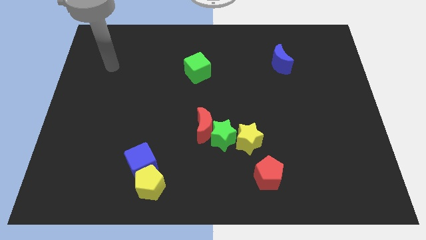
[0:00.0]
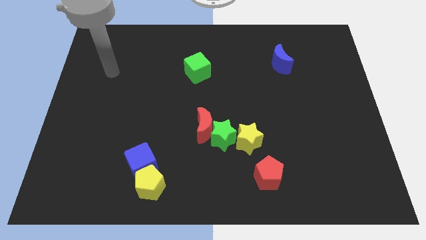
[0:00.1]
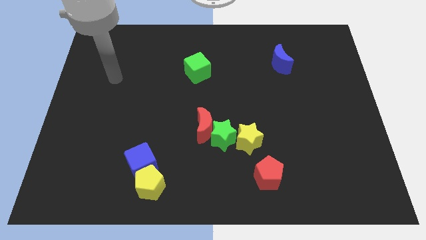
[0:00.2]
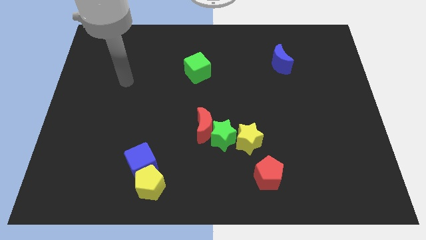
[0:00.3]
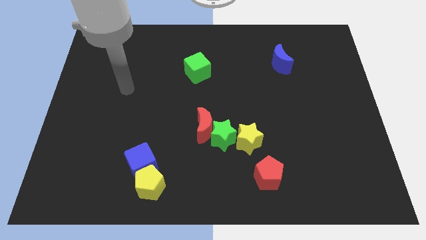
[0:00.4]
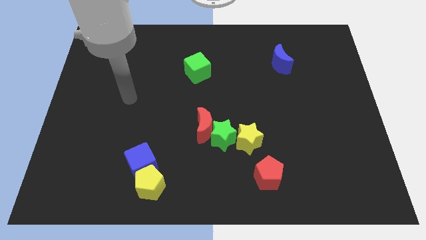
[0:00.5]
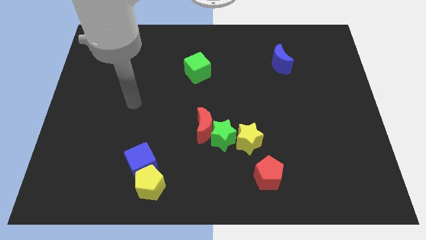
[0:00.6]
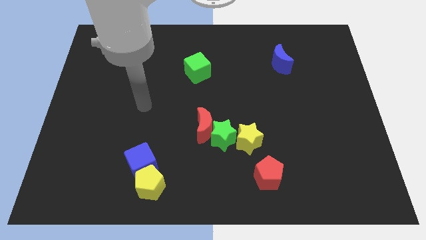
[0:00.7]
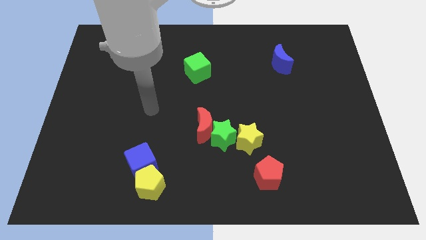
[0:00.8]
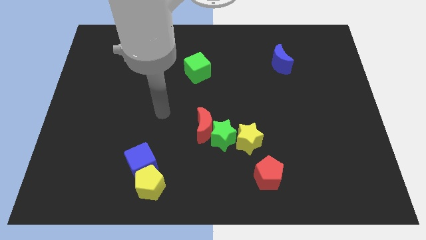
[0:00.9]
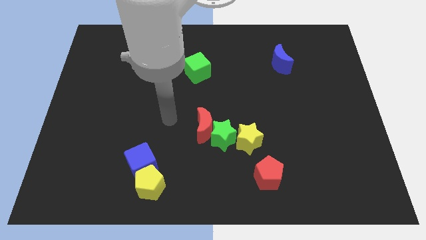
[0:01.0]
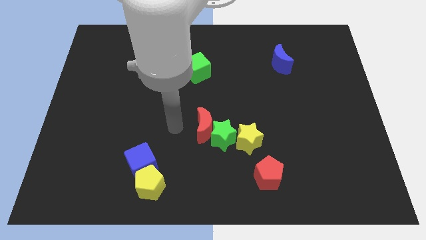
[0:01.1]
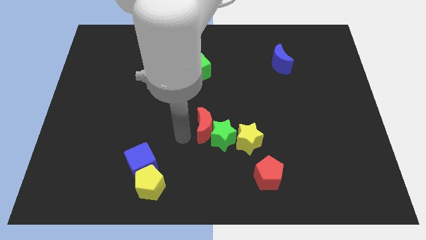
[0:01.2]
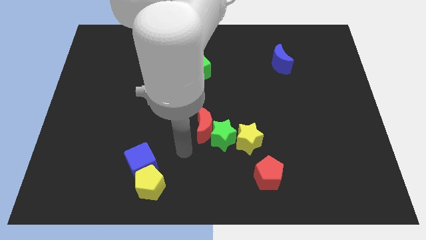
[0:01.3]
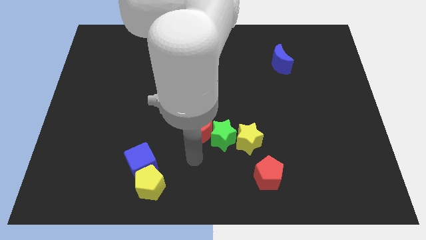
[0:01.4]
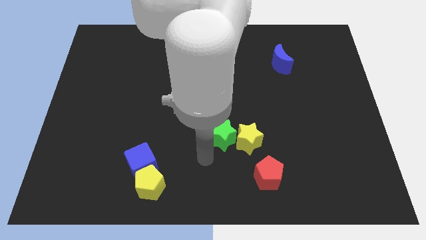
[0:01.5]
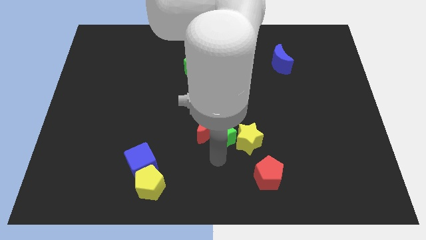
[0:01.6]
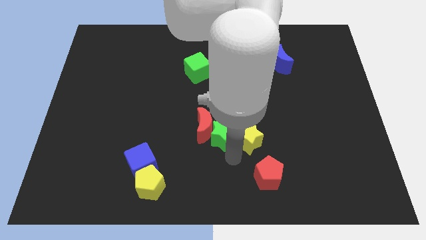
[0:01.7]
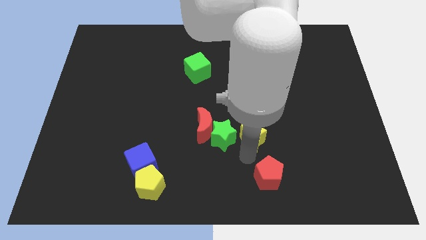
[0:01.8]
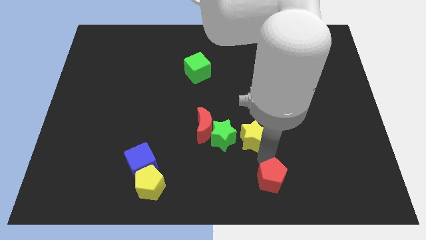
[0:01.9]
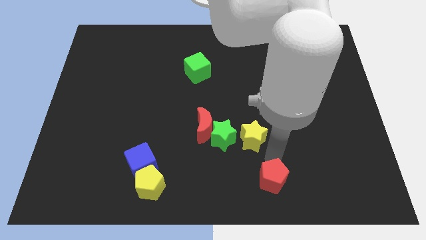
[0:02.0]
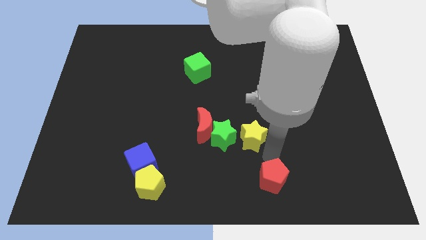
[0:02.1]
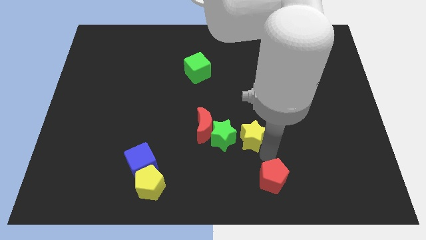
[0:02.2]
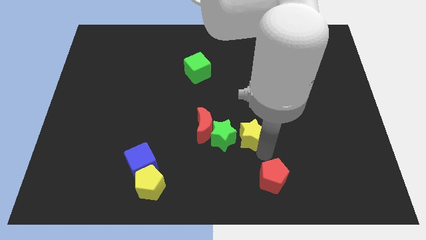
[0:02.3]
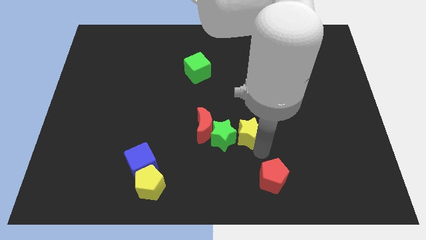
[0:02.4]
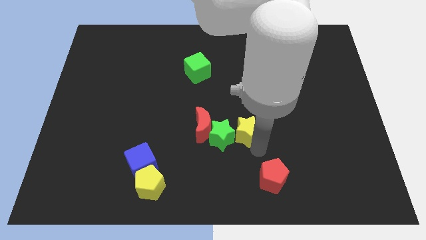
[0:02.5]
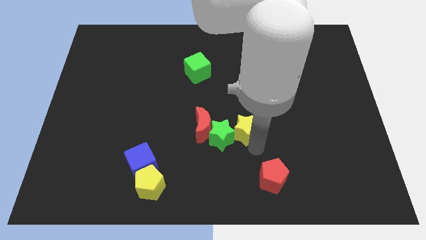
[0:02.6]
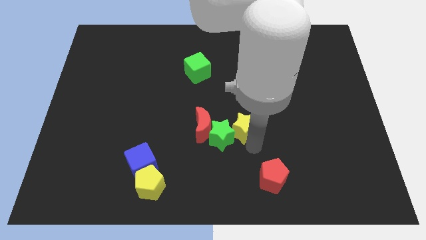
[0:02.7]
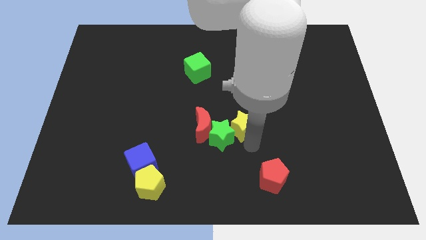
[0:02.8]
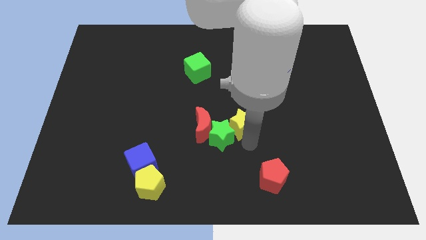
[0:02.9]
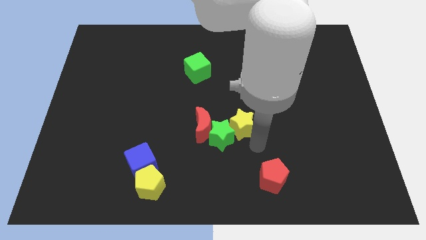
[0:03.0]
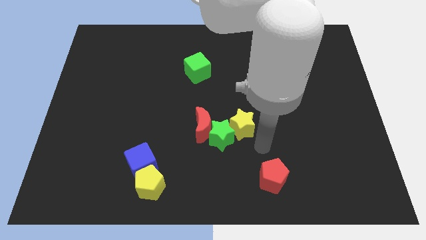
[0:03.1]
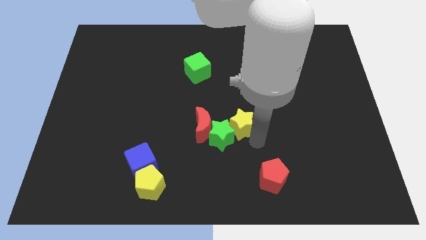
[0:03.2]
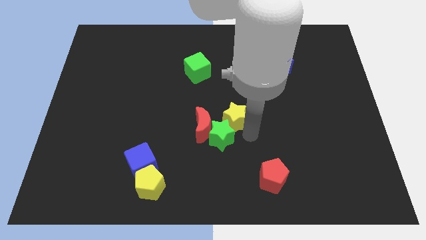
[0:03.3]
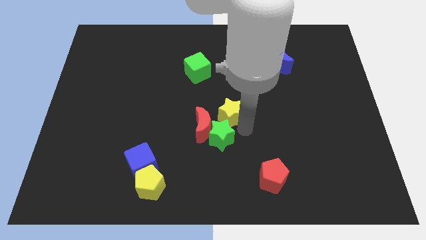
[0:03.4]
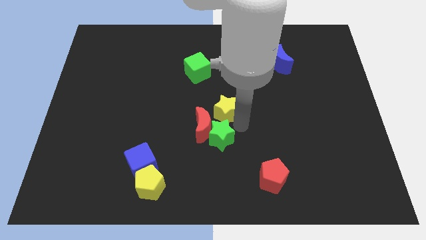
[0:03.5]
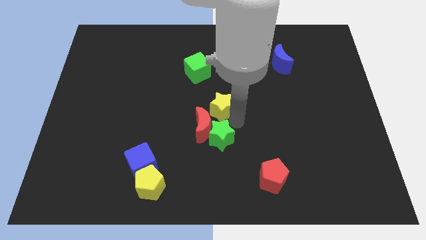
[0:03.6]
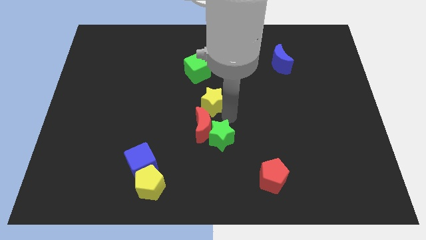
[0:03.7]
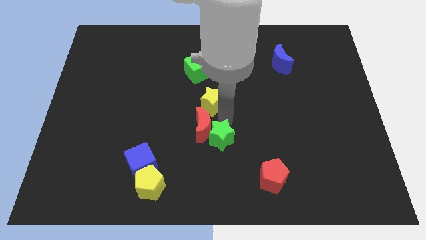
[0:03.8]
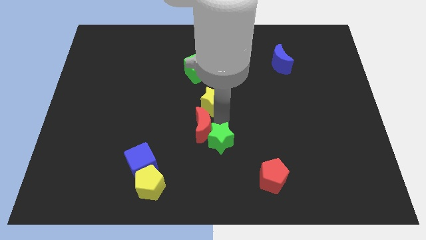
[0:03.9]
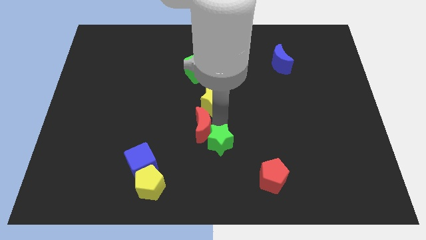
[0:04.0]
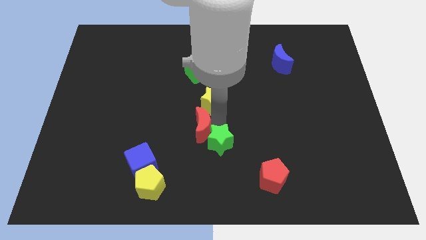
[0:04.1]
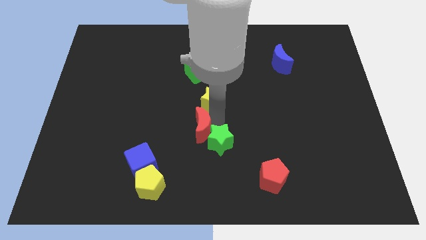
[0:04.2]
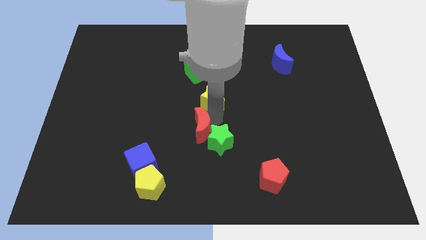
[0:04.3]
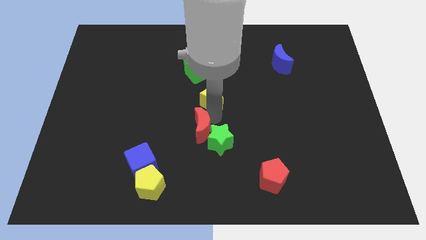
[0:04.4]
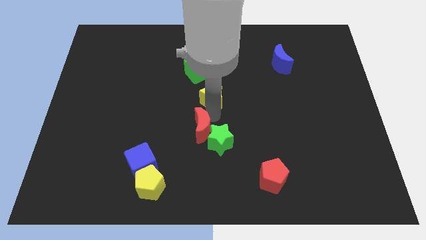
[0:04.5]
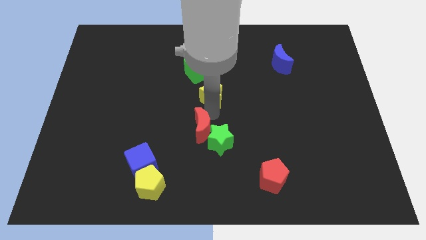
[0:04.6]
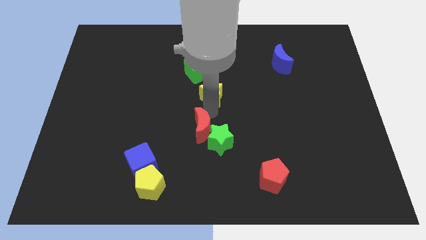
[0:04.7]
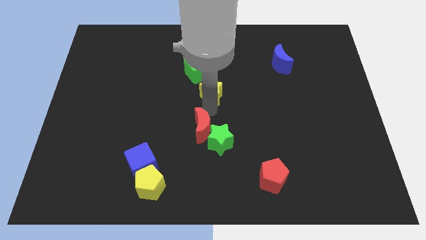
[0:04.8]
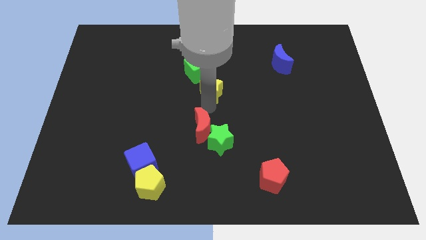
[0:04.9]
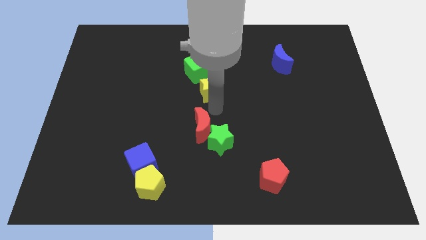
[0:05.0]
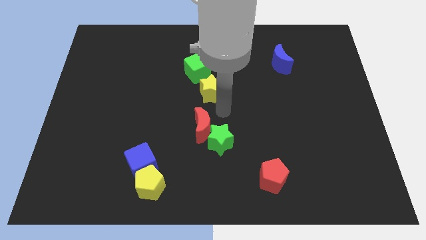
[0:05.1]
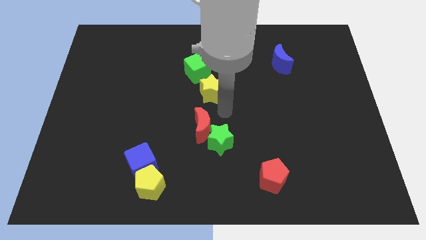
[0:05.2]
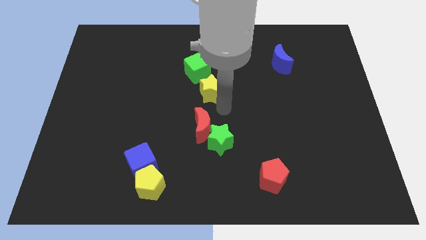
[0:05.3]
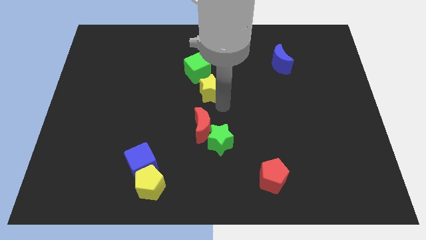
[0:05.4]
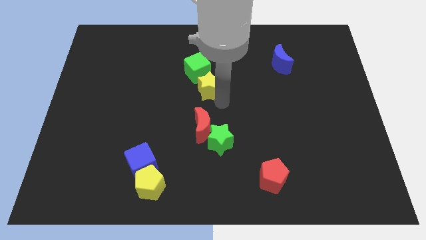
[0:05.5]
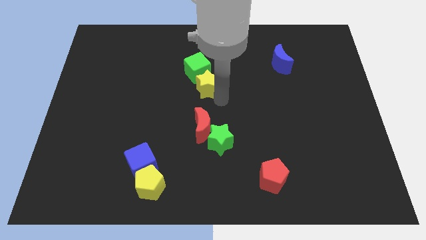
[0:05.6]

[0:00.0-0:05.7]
move the yellow star towards the green cube

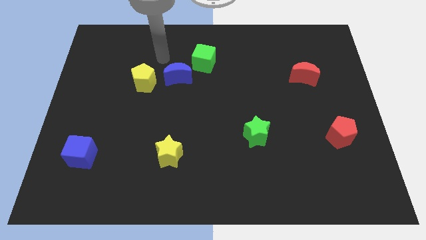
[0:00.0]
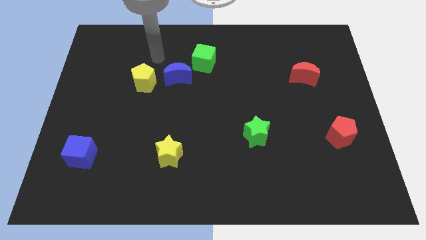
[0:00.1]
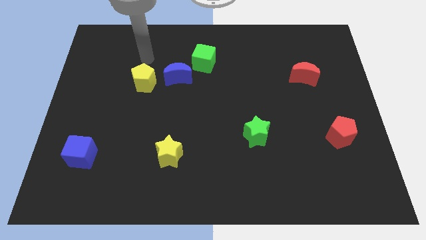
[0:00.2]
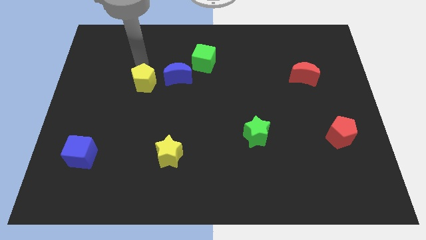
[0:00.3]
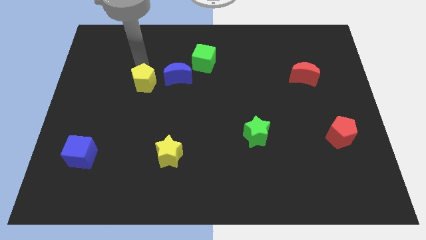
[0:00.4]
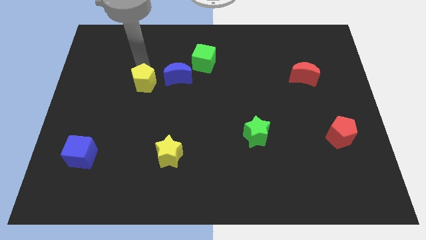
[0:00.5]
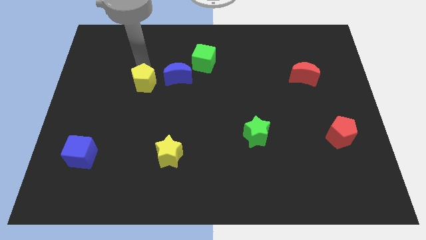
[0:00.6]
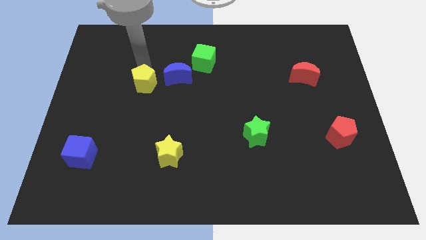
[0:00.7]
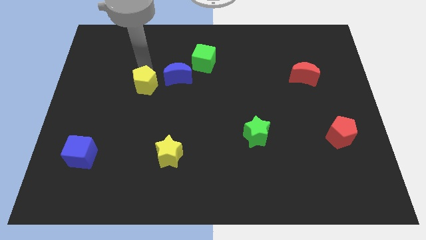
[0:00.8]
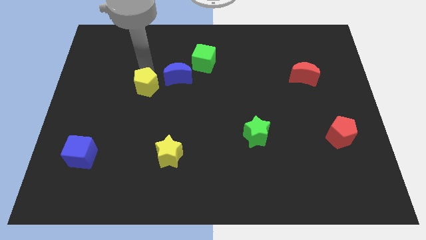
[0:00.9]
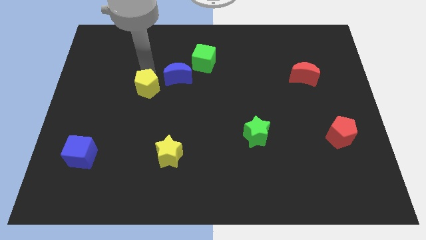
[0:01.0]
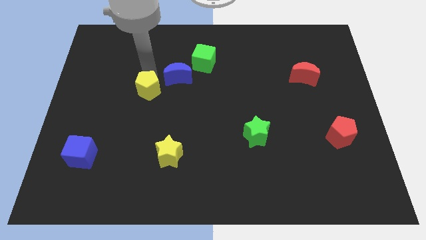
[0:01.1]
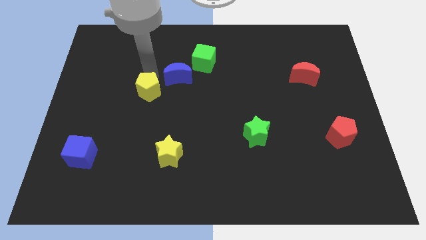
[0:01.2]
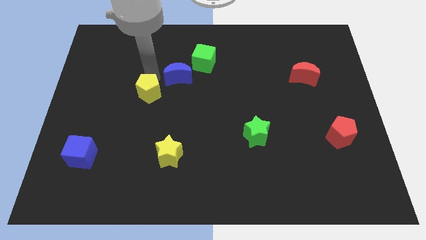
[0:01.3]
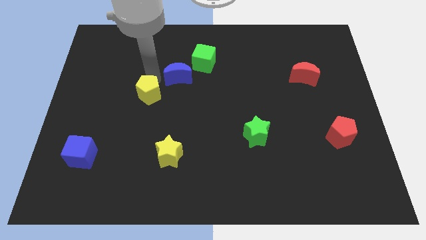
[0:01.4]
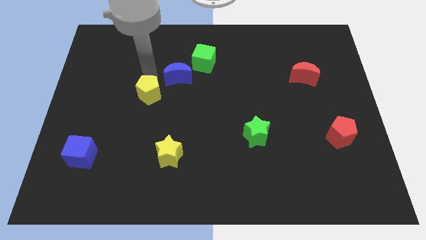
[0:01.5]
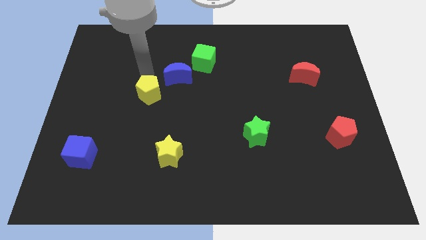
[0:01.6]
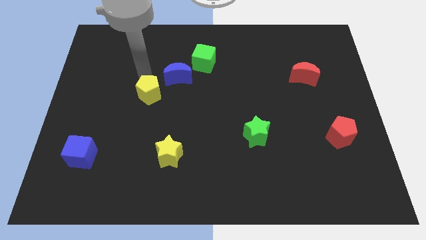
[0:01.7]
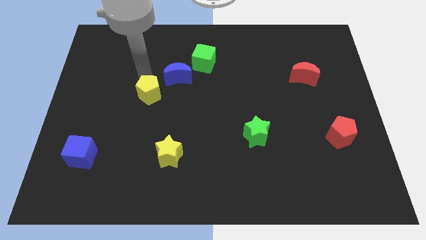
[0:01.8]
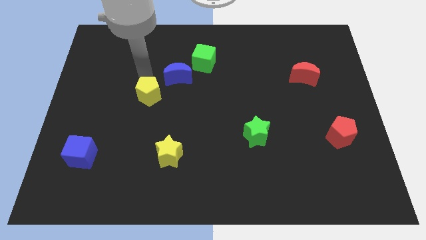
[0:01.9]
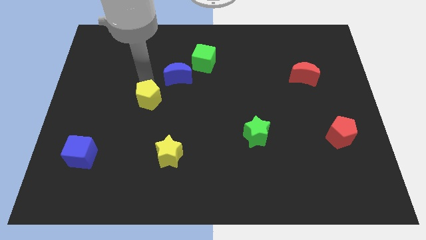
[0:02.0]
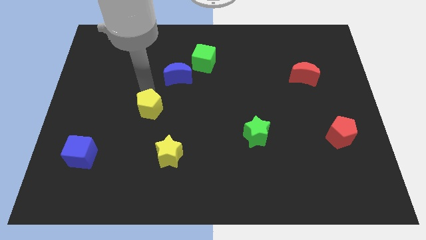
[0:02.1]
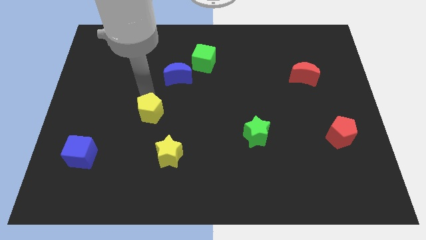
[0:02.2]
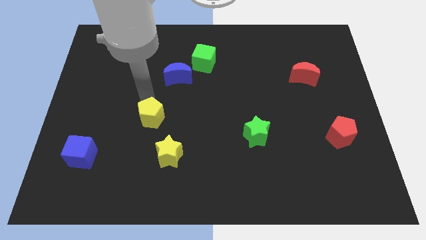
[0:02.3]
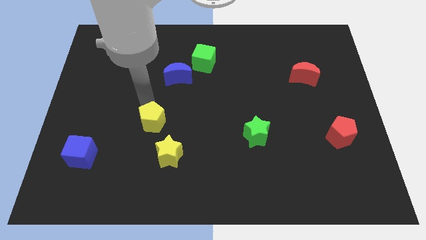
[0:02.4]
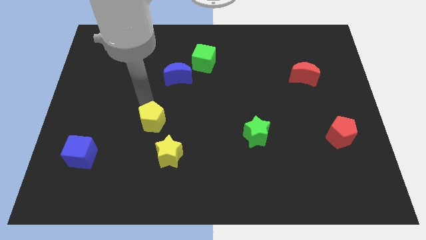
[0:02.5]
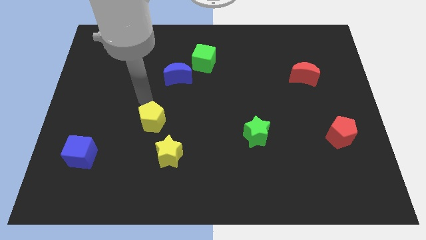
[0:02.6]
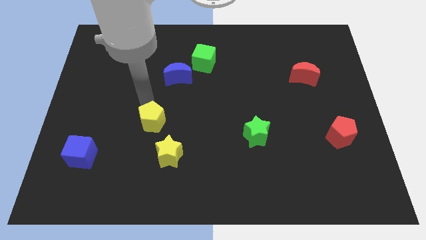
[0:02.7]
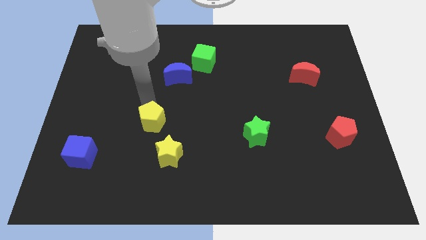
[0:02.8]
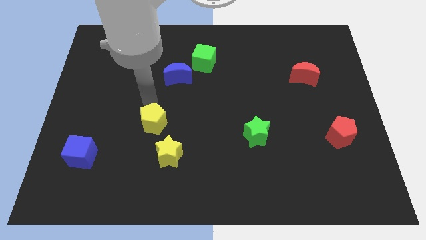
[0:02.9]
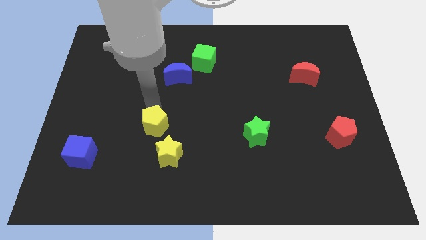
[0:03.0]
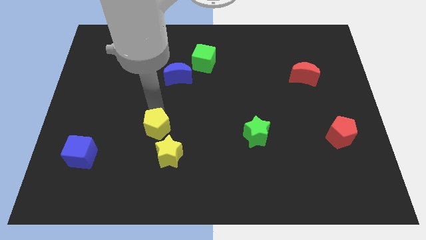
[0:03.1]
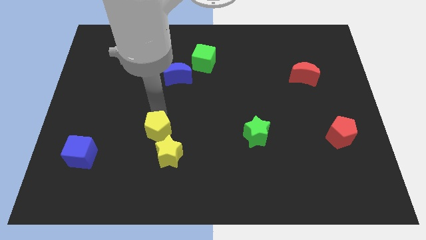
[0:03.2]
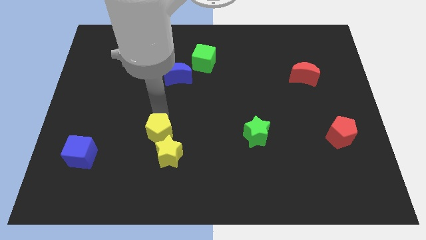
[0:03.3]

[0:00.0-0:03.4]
push the yellow pentagon to the yellow star
